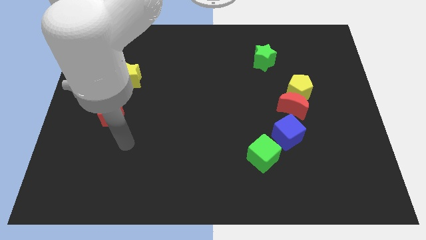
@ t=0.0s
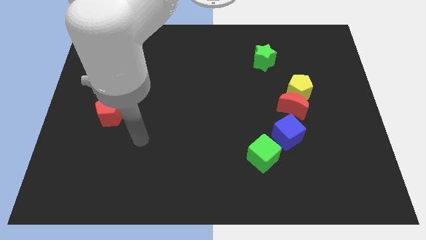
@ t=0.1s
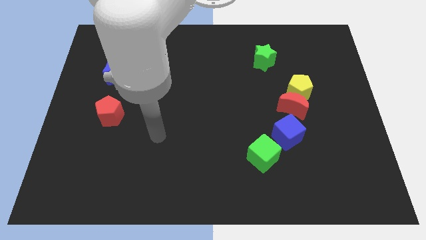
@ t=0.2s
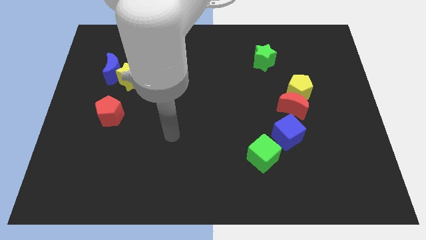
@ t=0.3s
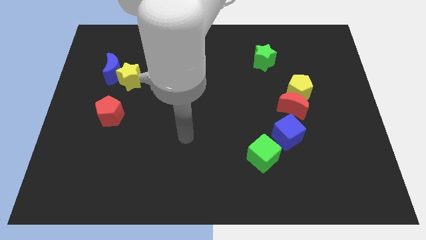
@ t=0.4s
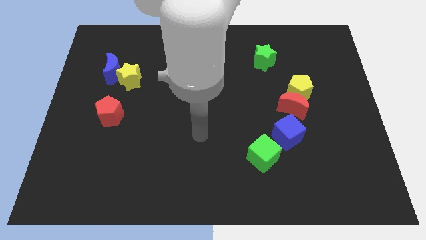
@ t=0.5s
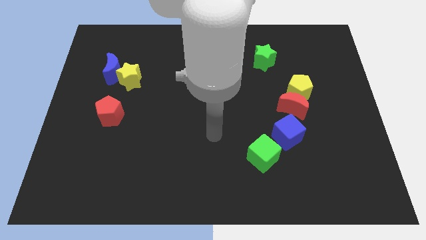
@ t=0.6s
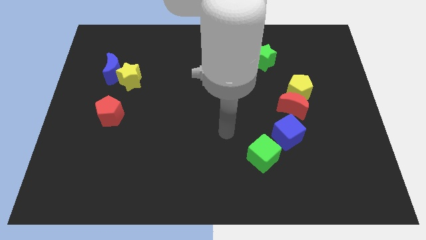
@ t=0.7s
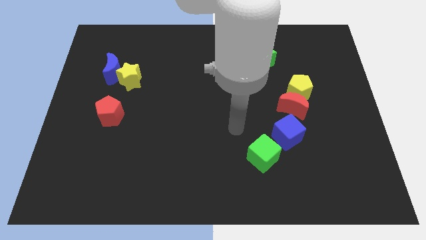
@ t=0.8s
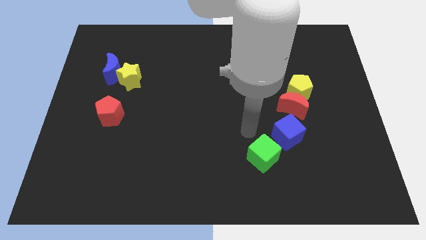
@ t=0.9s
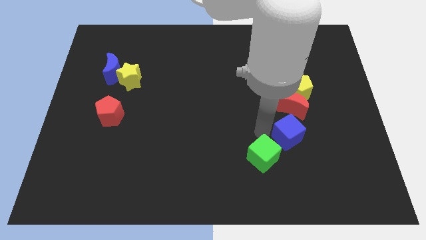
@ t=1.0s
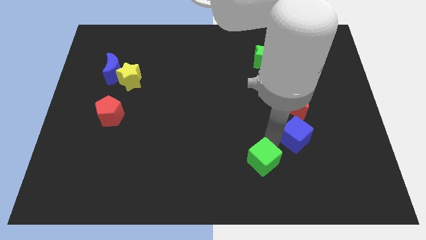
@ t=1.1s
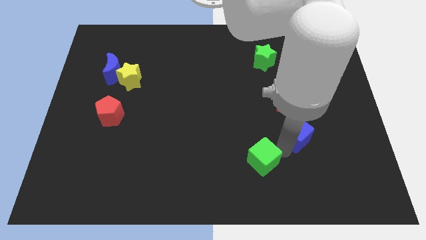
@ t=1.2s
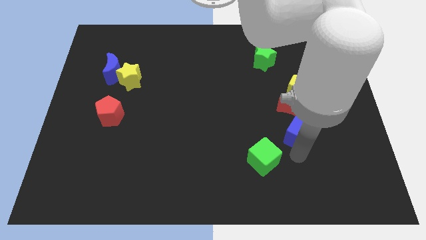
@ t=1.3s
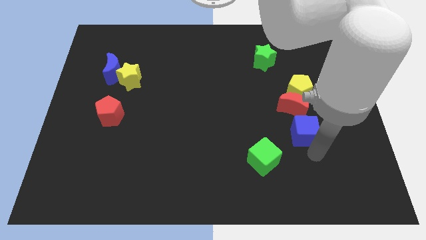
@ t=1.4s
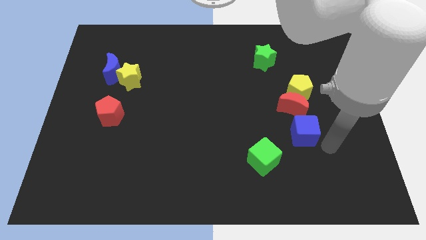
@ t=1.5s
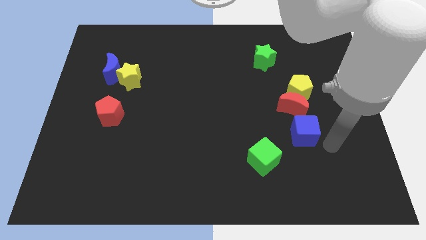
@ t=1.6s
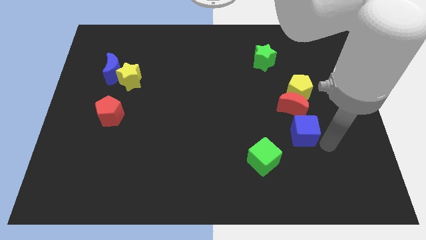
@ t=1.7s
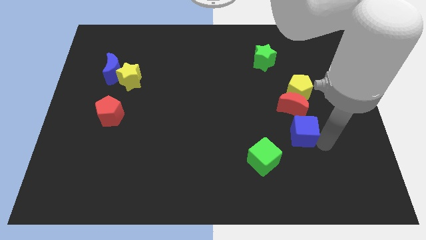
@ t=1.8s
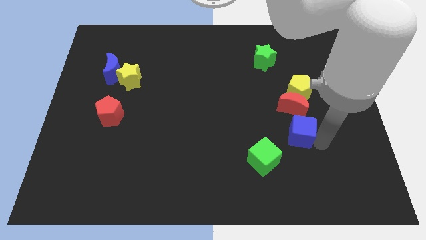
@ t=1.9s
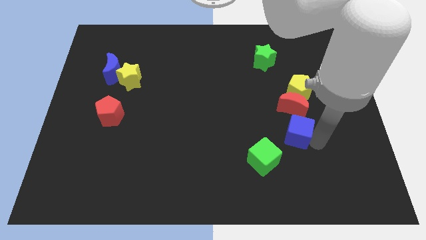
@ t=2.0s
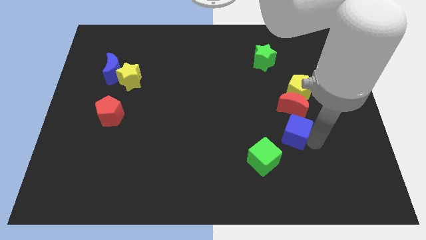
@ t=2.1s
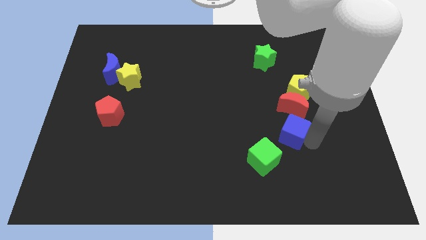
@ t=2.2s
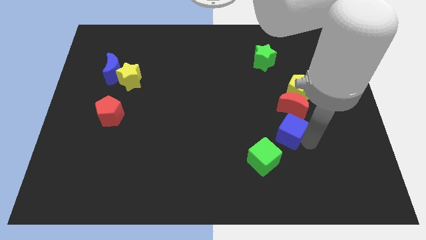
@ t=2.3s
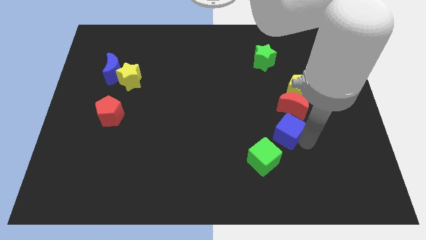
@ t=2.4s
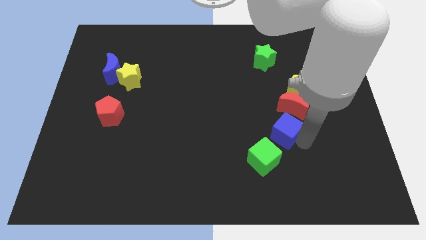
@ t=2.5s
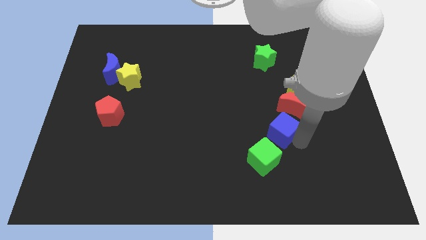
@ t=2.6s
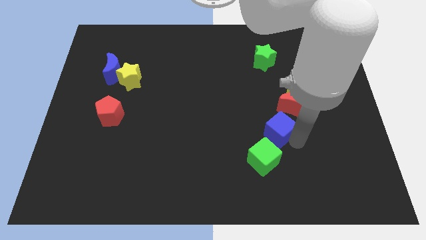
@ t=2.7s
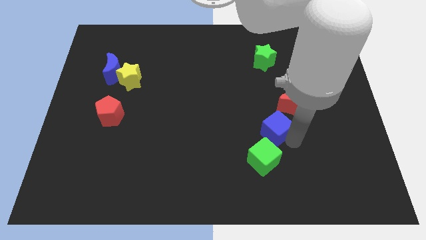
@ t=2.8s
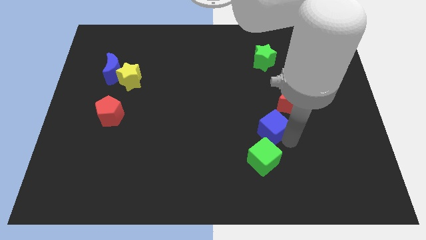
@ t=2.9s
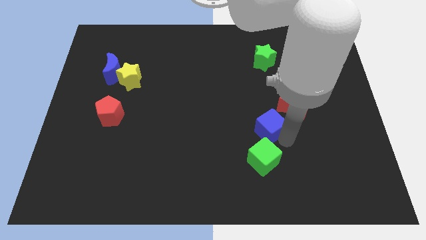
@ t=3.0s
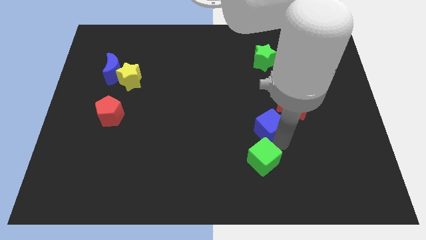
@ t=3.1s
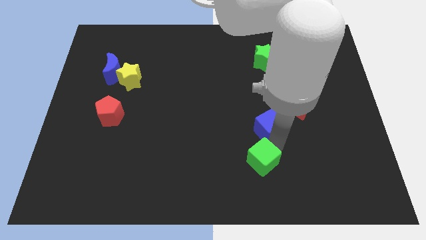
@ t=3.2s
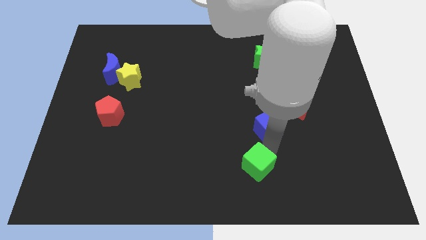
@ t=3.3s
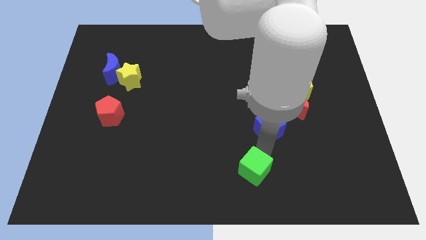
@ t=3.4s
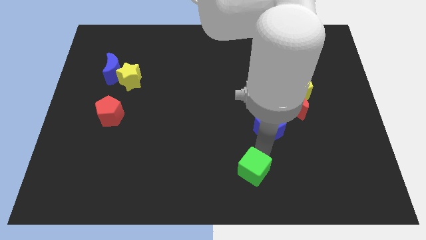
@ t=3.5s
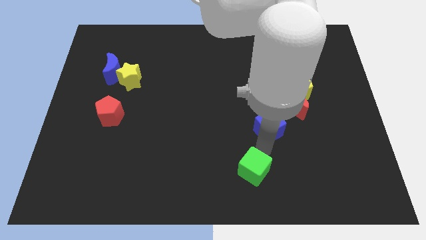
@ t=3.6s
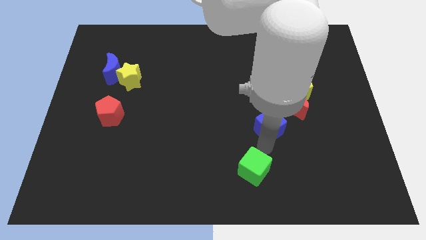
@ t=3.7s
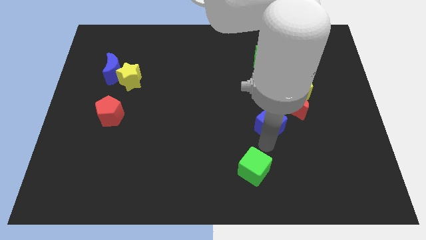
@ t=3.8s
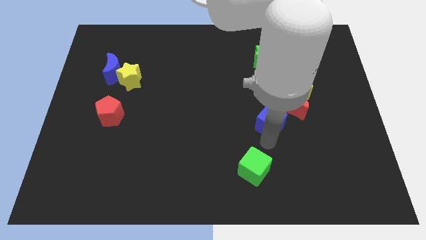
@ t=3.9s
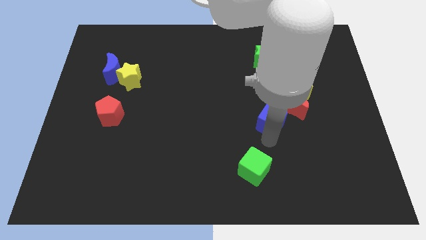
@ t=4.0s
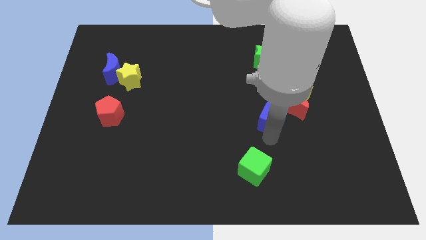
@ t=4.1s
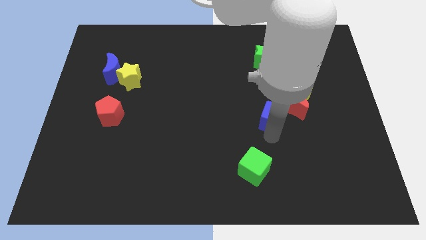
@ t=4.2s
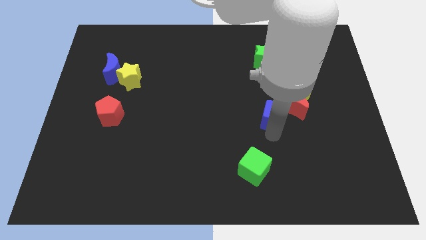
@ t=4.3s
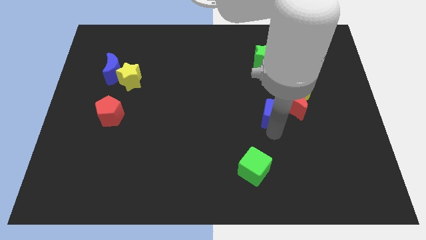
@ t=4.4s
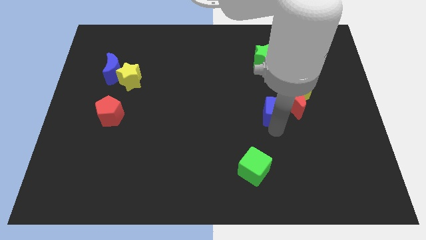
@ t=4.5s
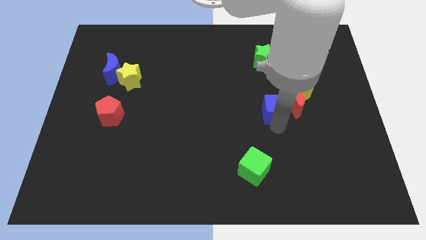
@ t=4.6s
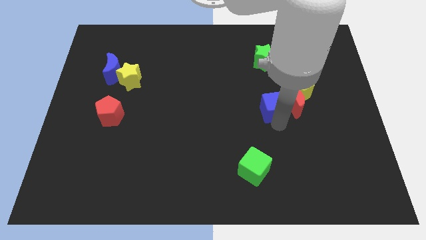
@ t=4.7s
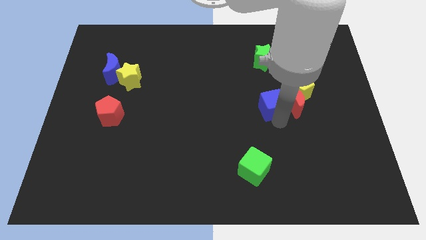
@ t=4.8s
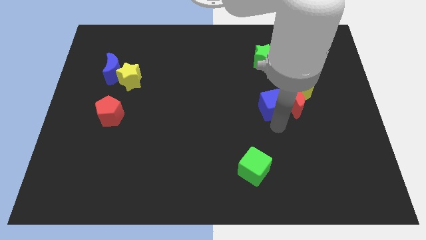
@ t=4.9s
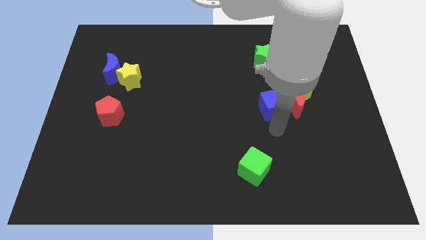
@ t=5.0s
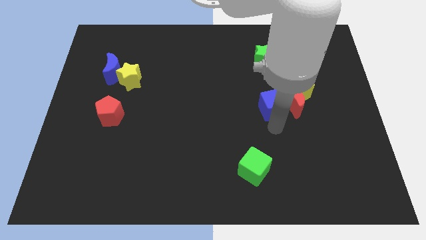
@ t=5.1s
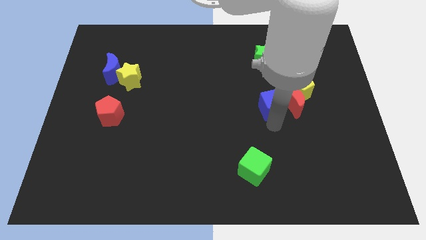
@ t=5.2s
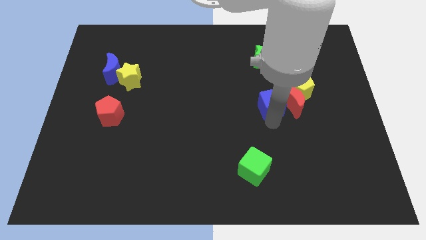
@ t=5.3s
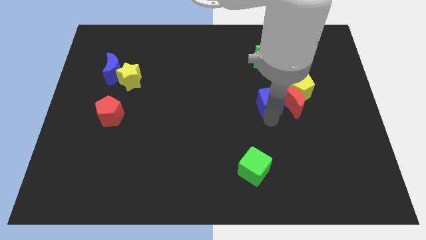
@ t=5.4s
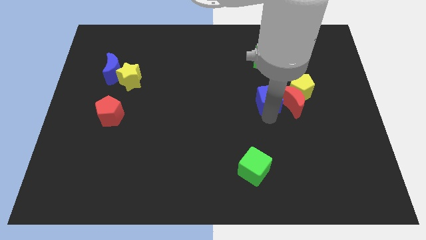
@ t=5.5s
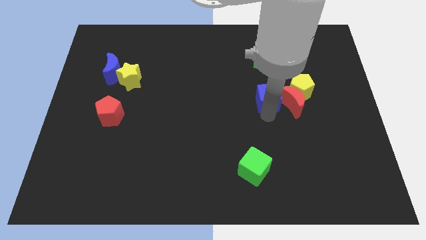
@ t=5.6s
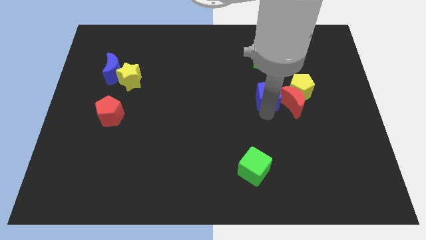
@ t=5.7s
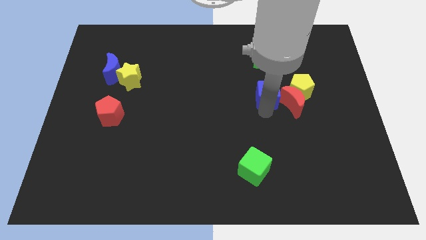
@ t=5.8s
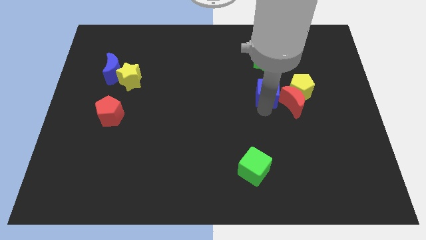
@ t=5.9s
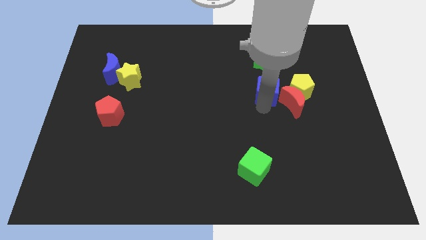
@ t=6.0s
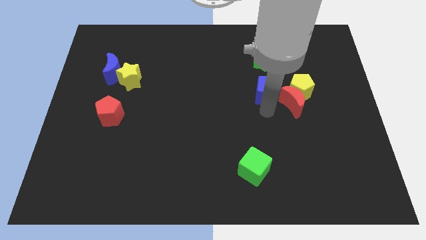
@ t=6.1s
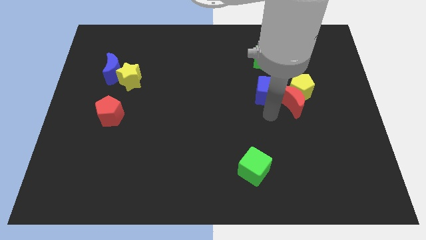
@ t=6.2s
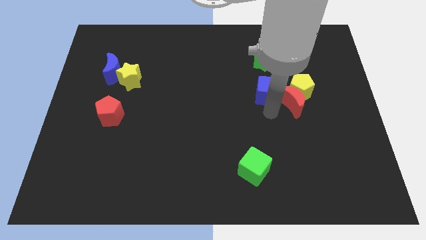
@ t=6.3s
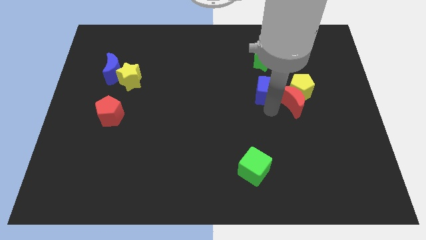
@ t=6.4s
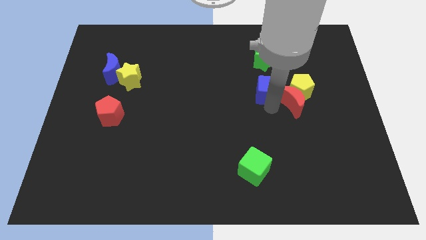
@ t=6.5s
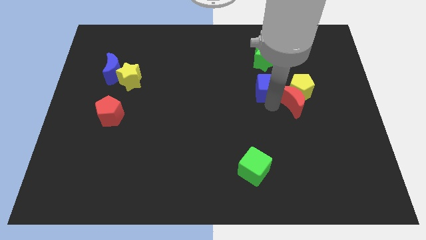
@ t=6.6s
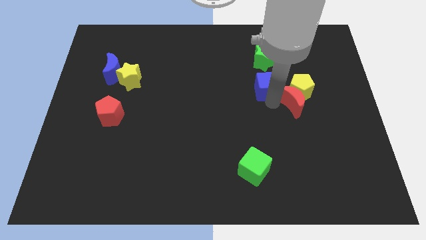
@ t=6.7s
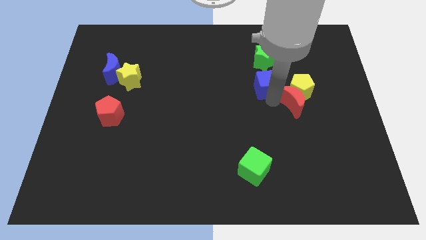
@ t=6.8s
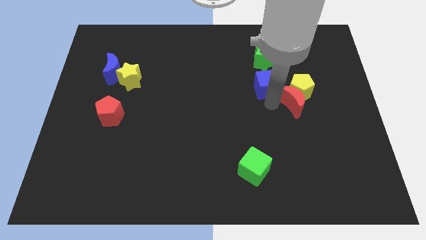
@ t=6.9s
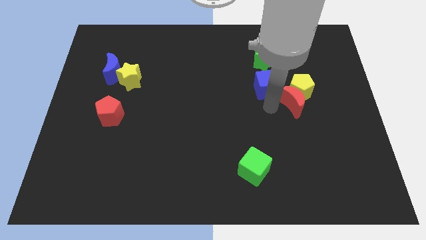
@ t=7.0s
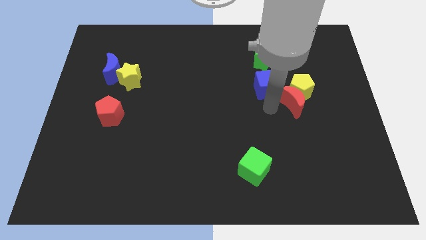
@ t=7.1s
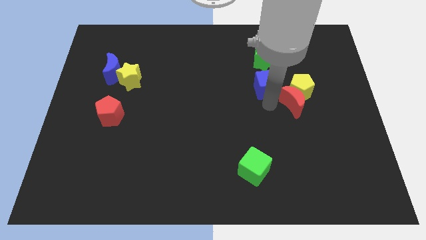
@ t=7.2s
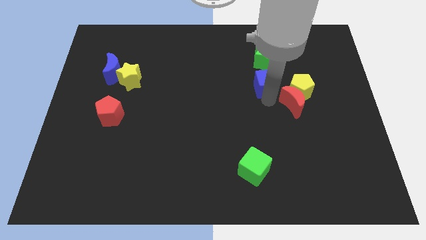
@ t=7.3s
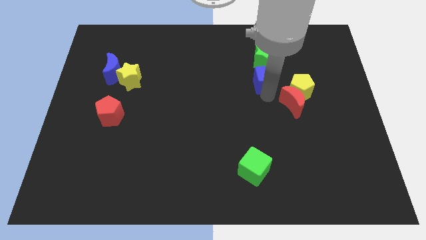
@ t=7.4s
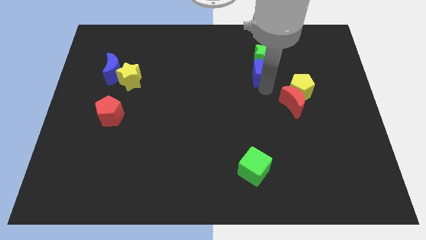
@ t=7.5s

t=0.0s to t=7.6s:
push the blue cube to the green star

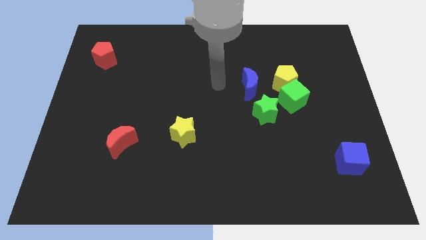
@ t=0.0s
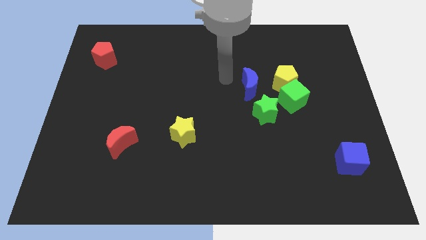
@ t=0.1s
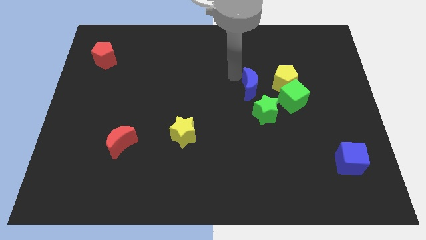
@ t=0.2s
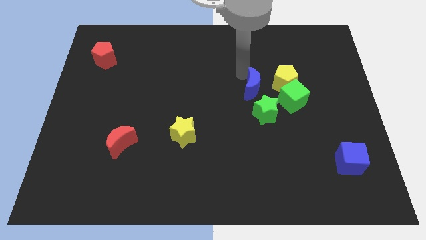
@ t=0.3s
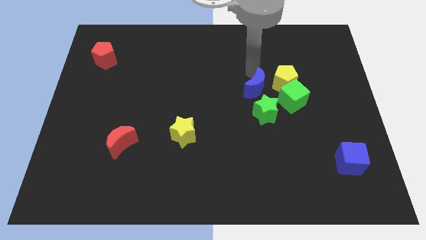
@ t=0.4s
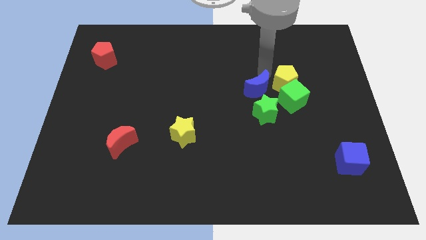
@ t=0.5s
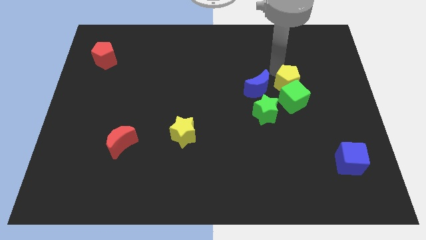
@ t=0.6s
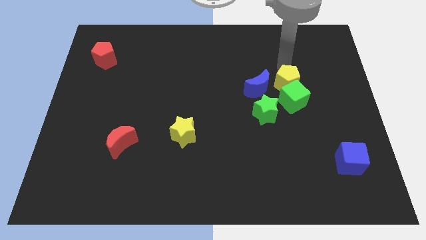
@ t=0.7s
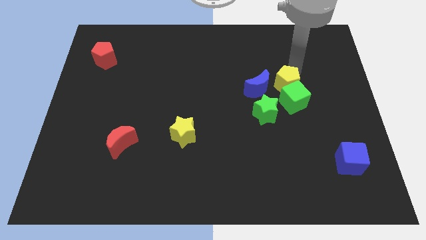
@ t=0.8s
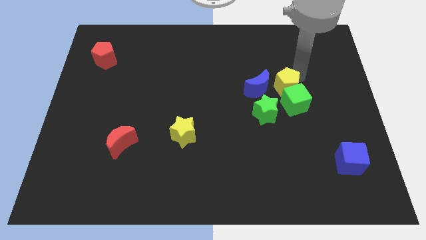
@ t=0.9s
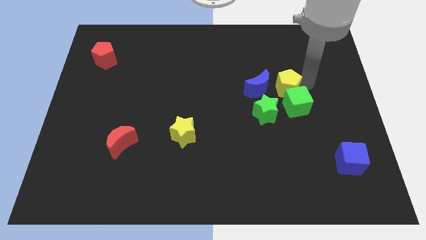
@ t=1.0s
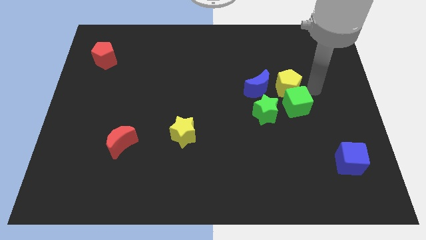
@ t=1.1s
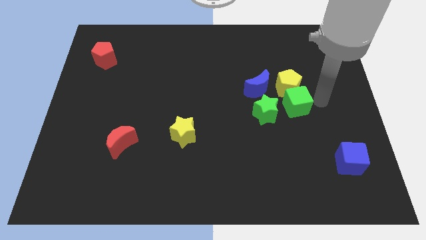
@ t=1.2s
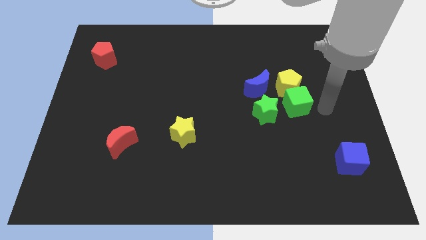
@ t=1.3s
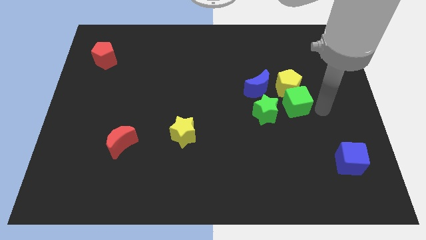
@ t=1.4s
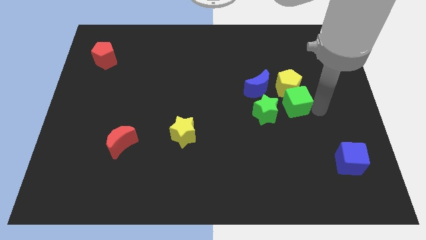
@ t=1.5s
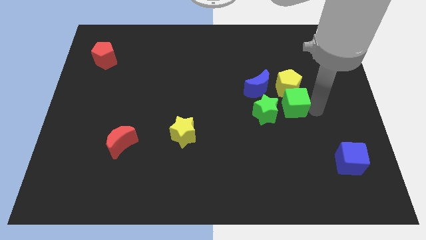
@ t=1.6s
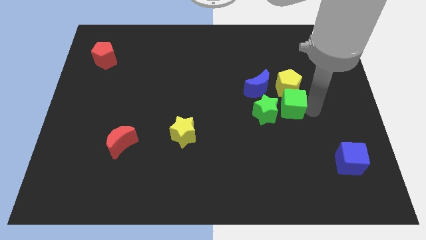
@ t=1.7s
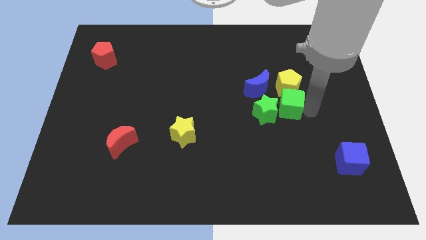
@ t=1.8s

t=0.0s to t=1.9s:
slide the green cube towards the green star
